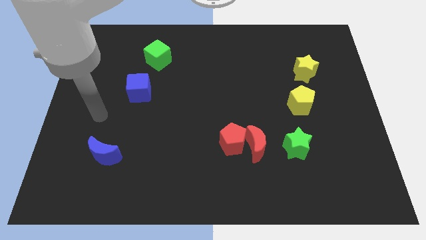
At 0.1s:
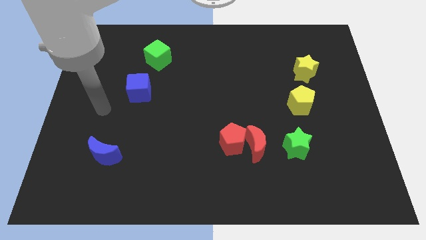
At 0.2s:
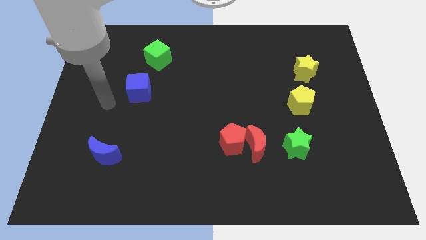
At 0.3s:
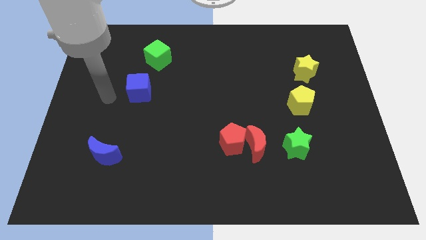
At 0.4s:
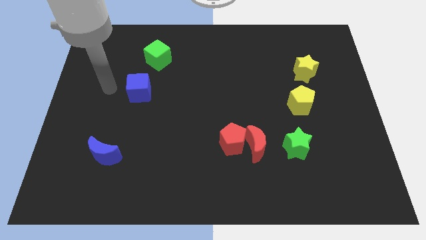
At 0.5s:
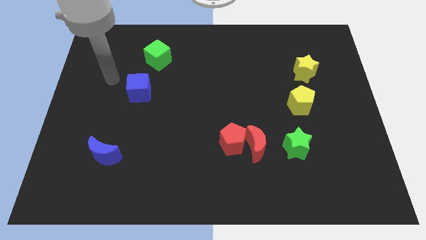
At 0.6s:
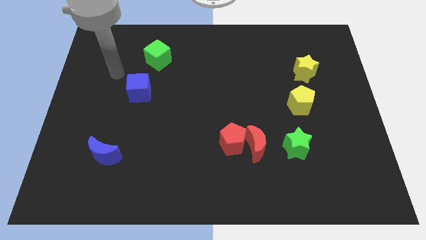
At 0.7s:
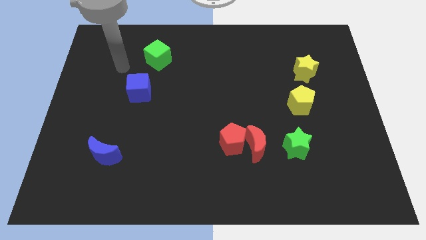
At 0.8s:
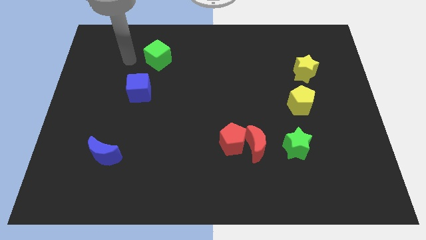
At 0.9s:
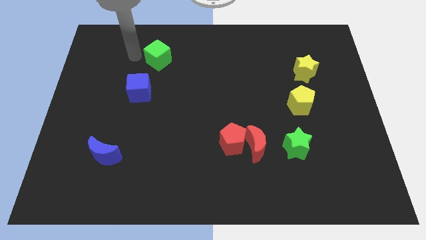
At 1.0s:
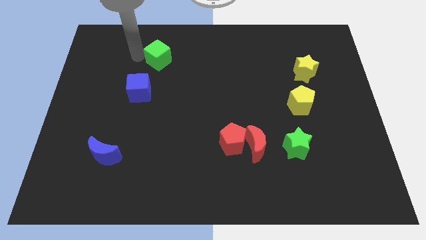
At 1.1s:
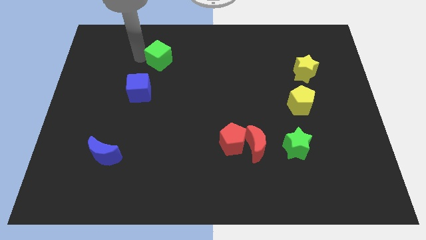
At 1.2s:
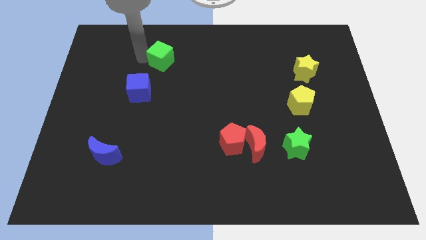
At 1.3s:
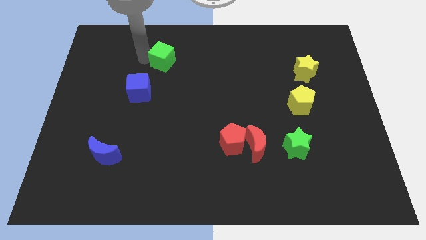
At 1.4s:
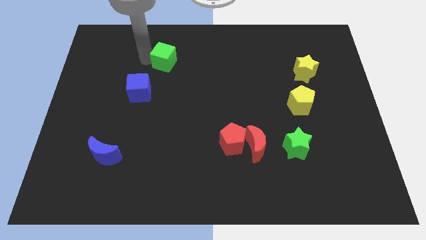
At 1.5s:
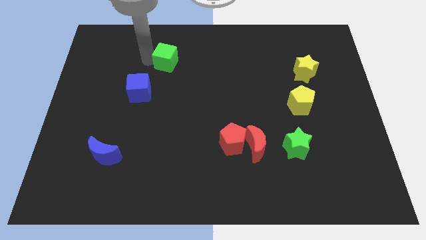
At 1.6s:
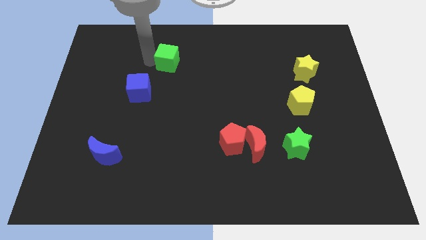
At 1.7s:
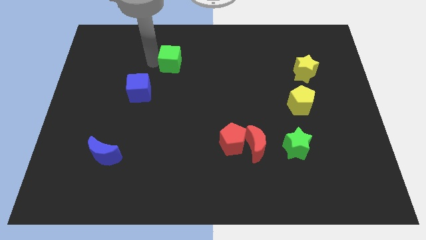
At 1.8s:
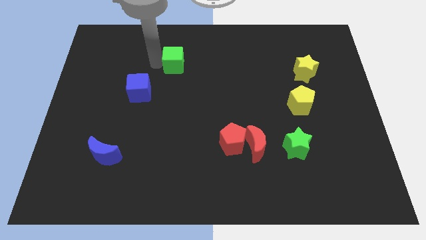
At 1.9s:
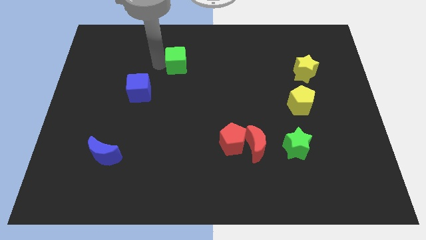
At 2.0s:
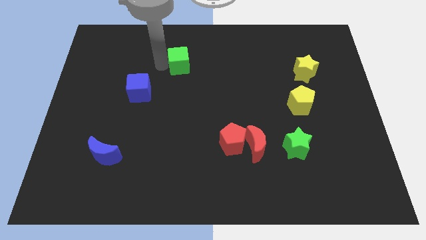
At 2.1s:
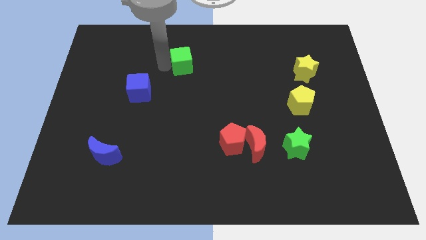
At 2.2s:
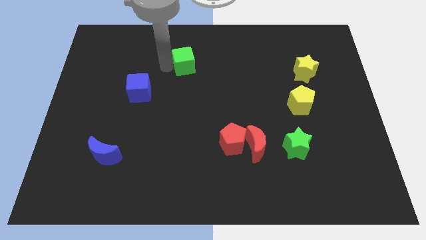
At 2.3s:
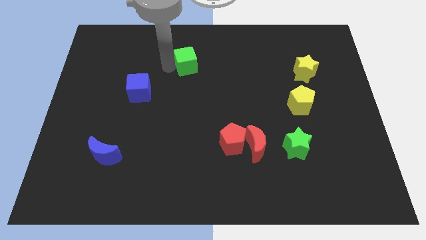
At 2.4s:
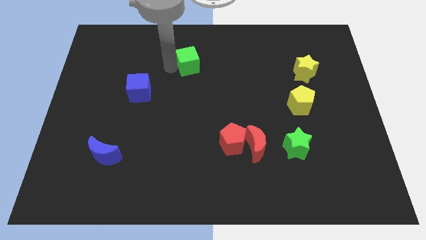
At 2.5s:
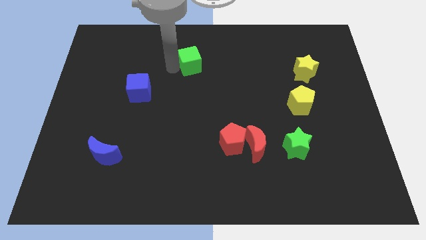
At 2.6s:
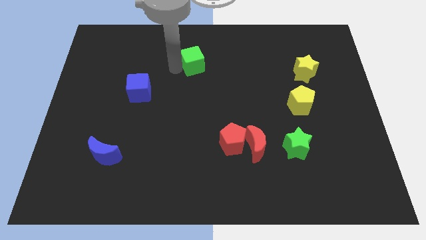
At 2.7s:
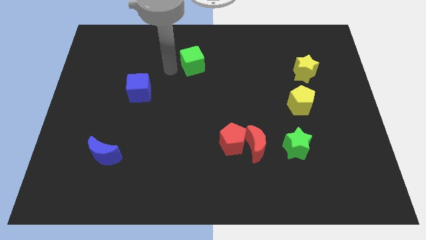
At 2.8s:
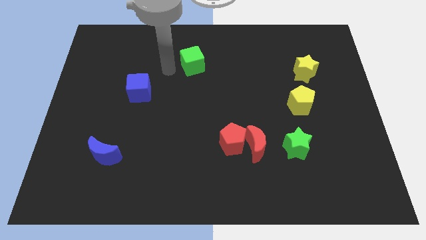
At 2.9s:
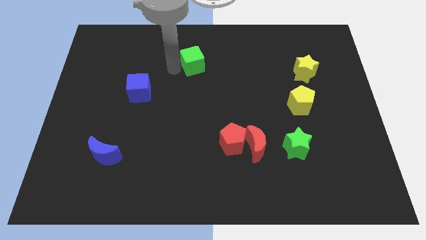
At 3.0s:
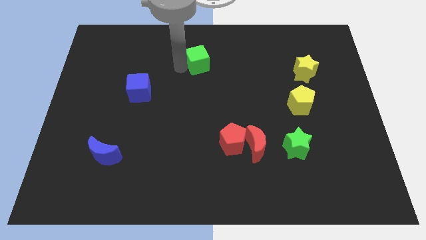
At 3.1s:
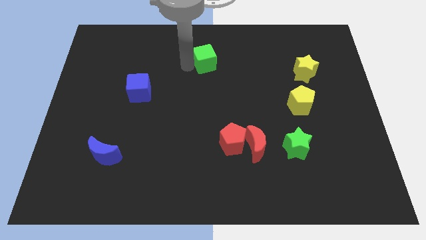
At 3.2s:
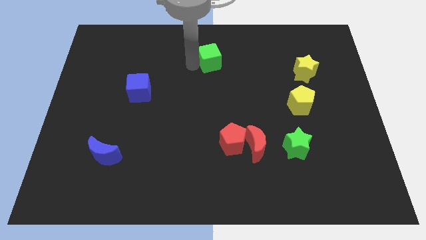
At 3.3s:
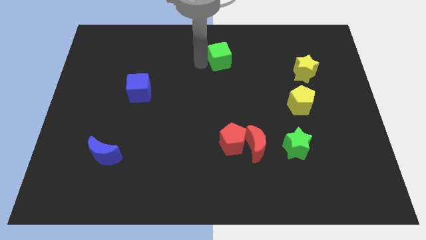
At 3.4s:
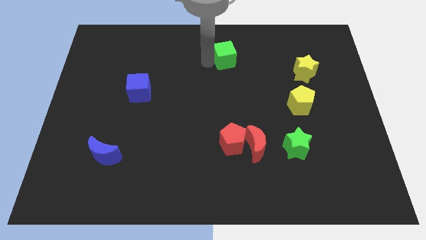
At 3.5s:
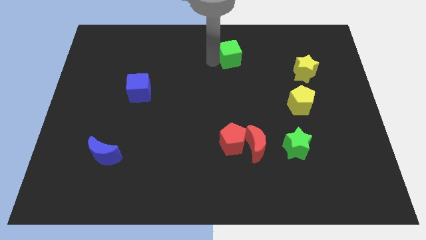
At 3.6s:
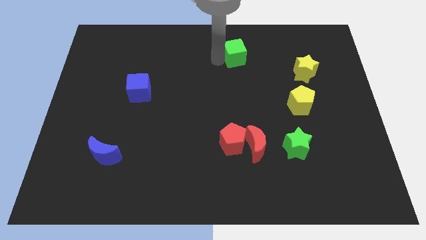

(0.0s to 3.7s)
slide the green cube right

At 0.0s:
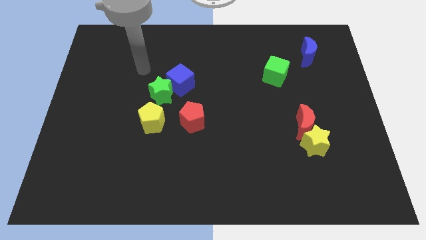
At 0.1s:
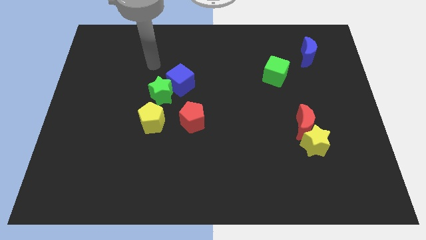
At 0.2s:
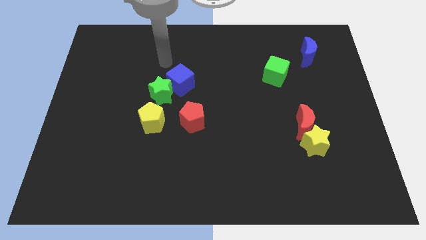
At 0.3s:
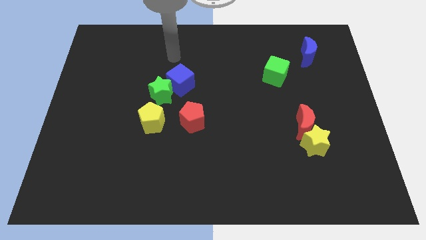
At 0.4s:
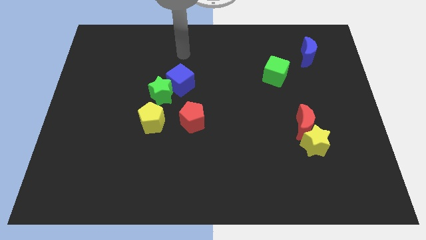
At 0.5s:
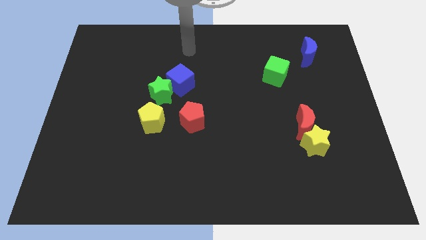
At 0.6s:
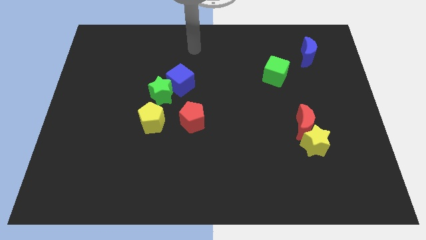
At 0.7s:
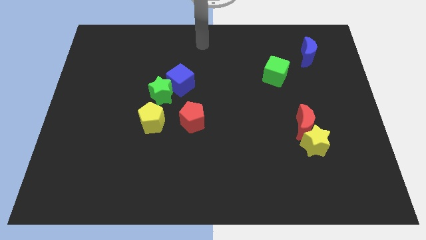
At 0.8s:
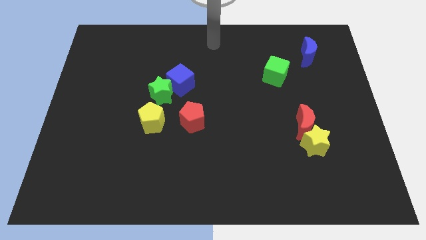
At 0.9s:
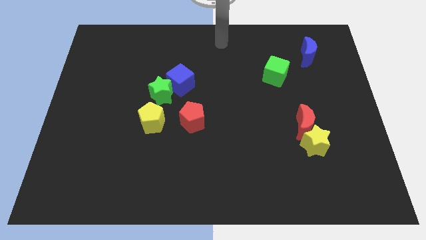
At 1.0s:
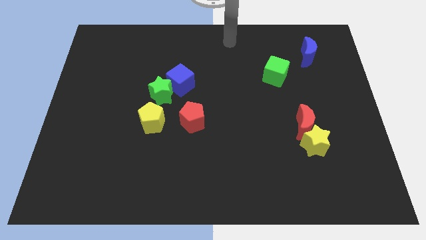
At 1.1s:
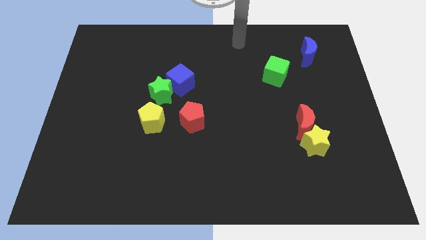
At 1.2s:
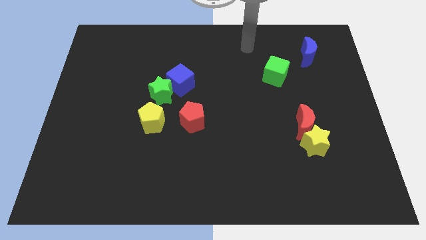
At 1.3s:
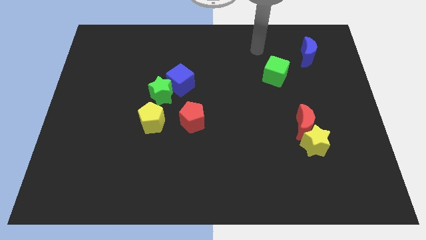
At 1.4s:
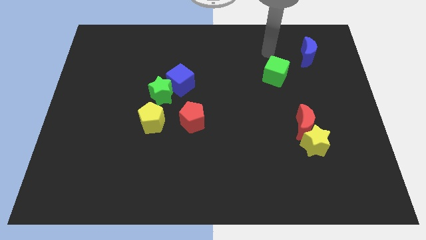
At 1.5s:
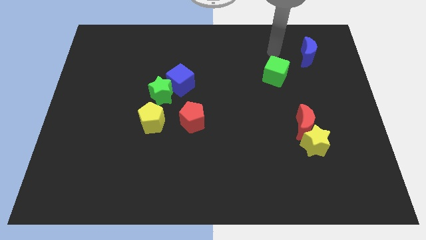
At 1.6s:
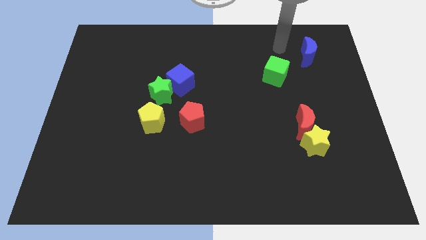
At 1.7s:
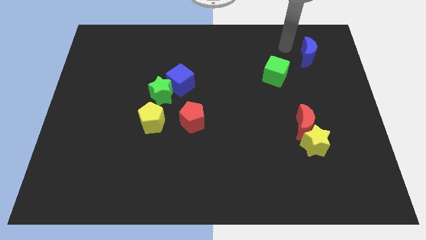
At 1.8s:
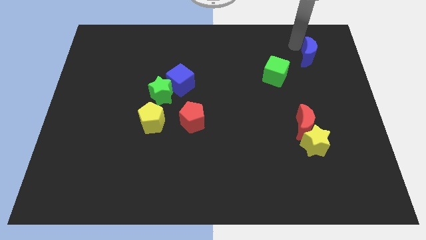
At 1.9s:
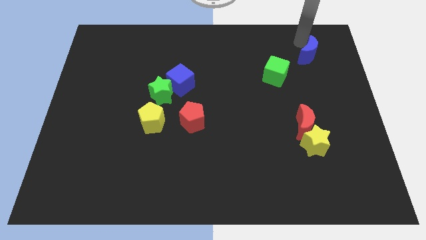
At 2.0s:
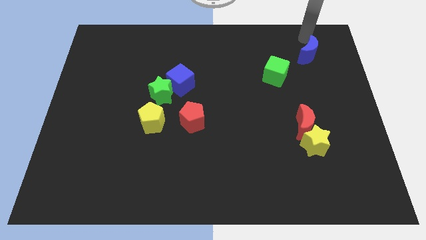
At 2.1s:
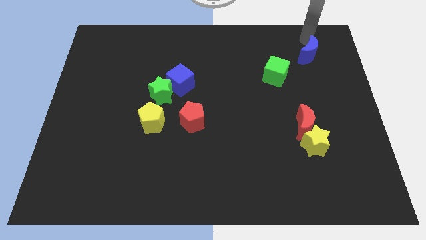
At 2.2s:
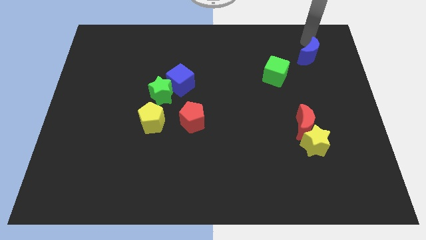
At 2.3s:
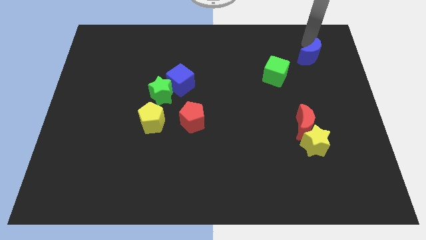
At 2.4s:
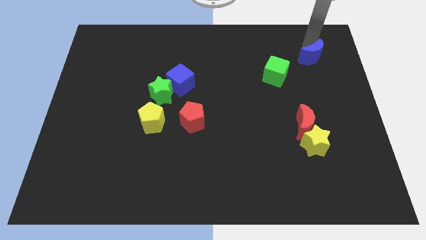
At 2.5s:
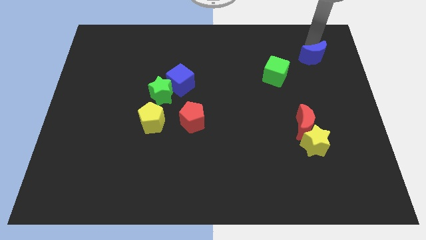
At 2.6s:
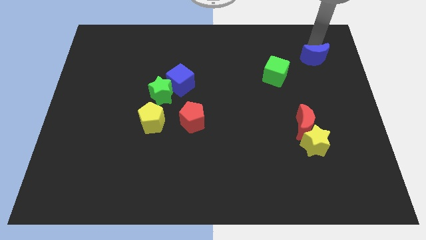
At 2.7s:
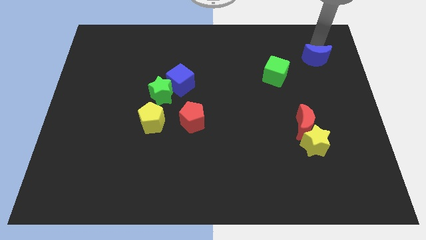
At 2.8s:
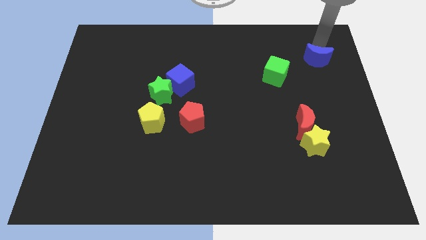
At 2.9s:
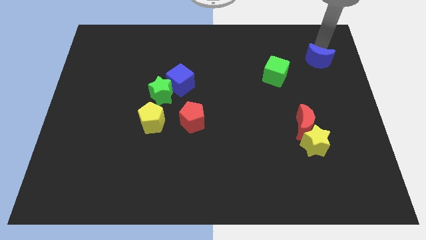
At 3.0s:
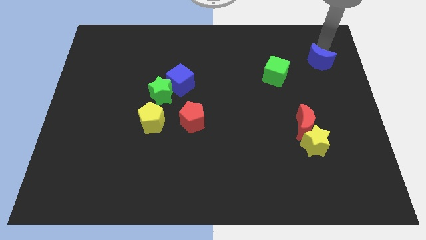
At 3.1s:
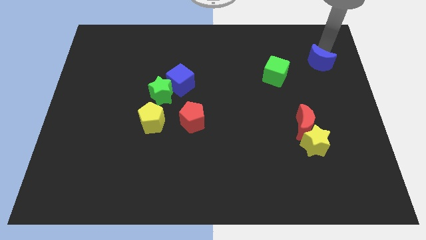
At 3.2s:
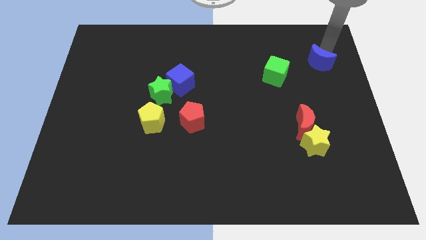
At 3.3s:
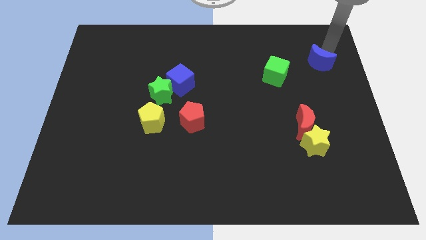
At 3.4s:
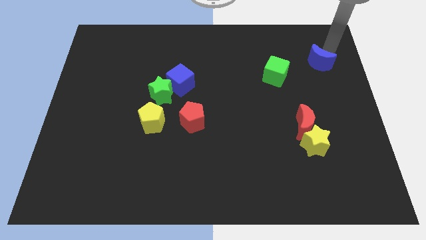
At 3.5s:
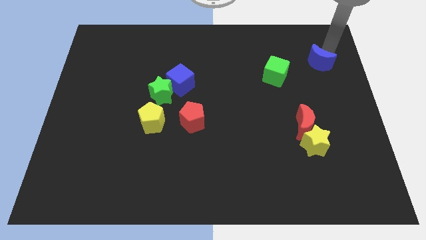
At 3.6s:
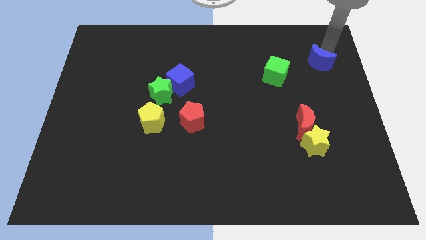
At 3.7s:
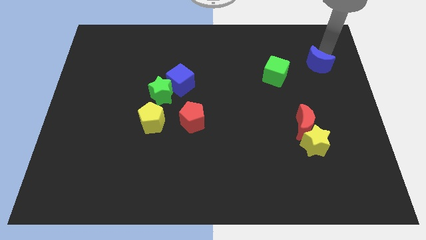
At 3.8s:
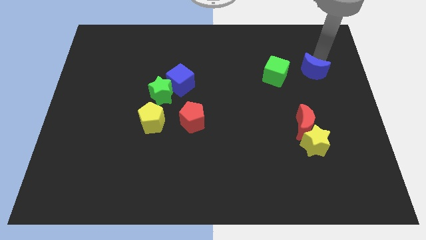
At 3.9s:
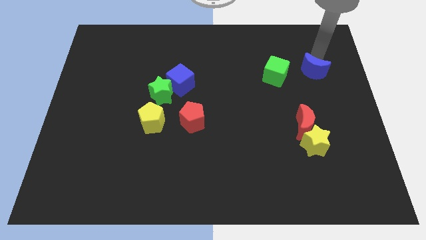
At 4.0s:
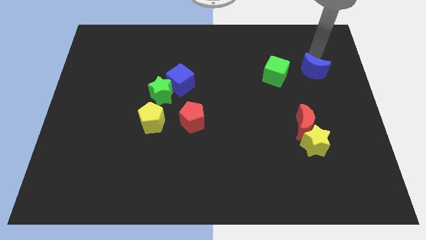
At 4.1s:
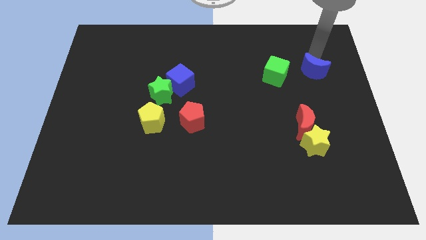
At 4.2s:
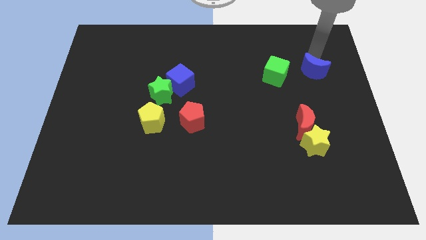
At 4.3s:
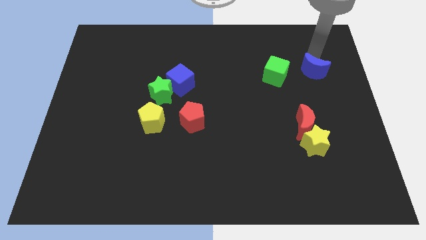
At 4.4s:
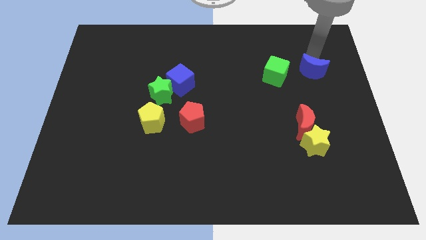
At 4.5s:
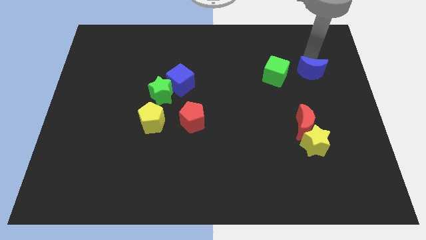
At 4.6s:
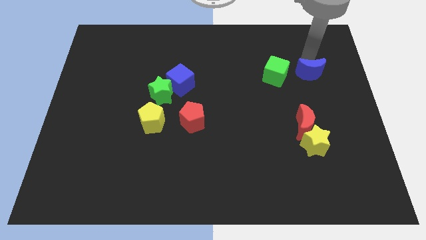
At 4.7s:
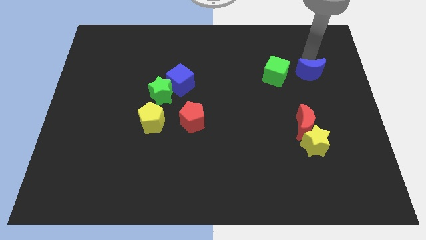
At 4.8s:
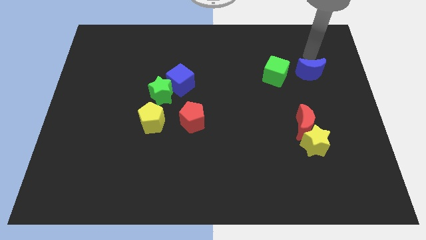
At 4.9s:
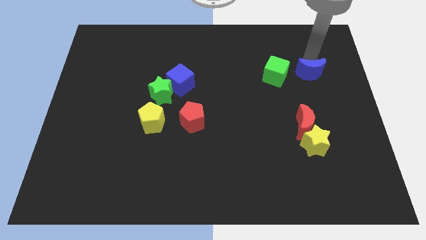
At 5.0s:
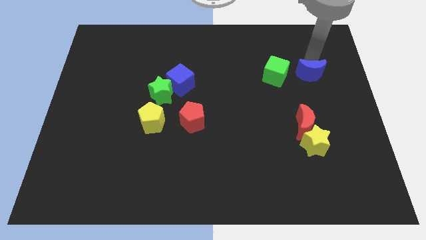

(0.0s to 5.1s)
push the blue moon somewhat down
